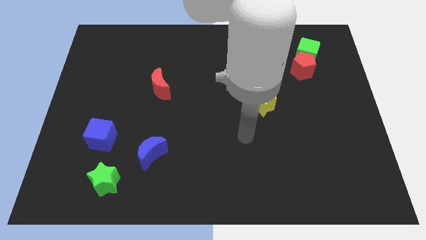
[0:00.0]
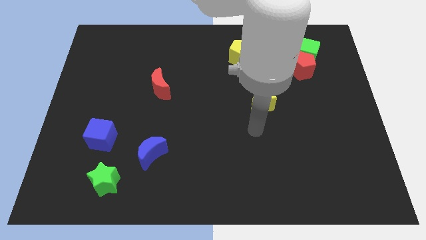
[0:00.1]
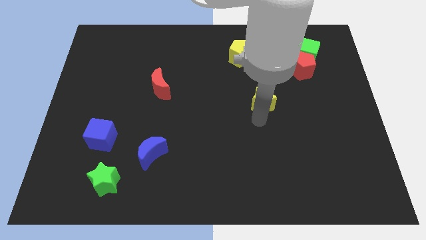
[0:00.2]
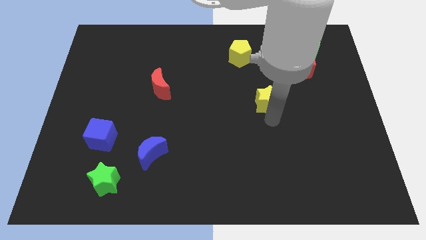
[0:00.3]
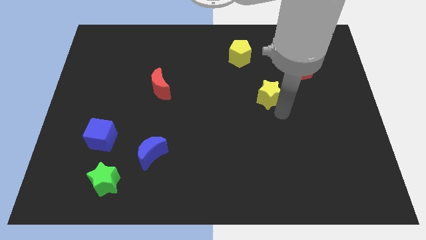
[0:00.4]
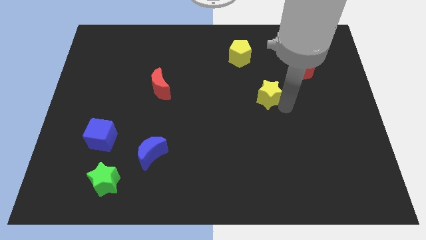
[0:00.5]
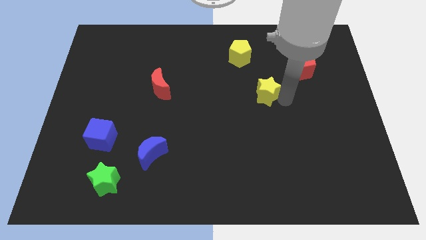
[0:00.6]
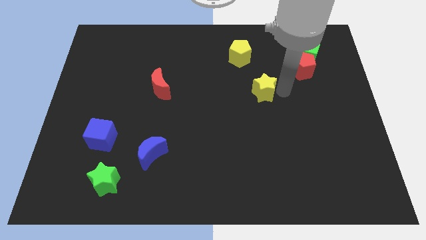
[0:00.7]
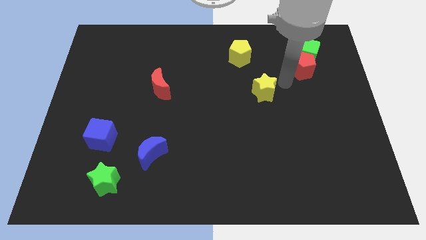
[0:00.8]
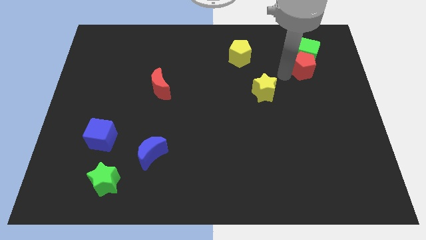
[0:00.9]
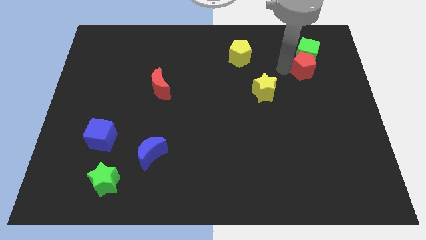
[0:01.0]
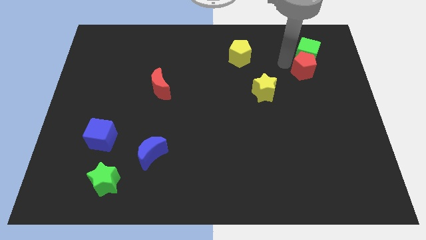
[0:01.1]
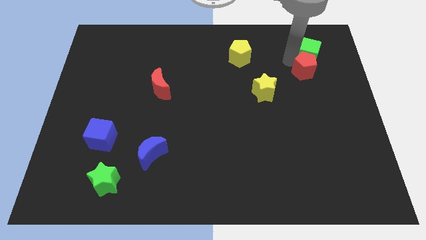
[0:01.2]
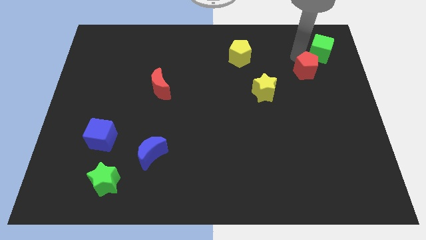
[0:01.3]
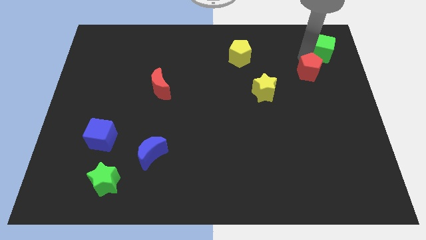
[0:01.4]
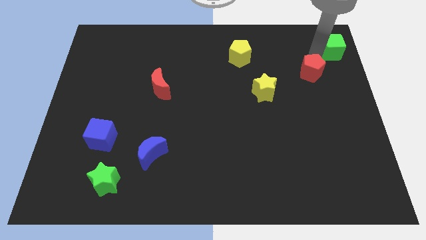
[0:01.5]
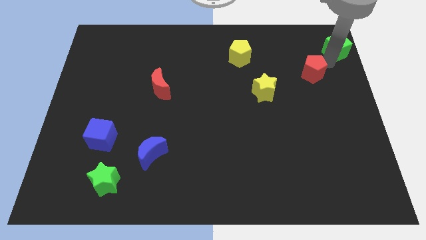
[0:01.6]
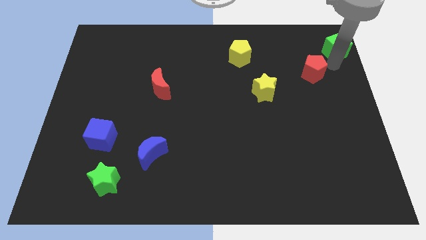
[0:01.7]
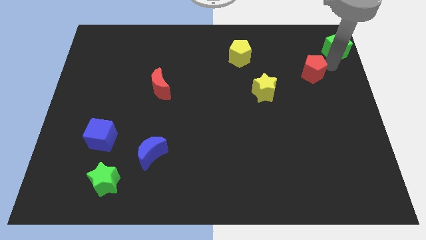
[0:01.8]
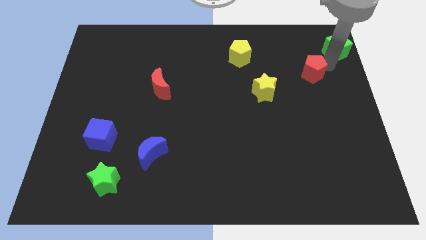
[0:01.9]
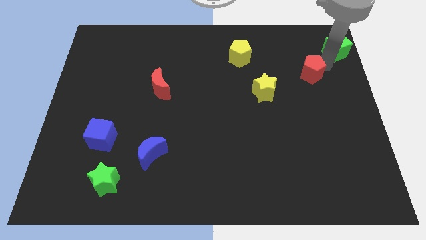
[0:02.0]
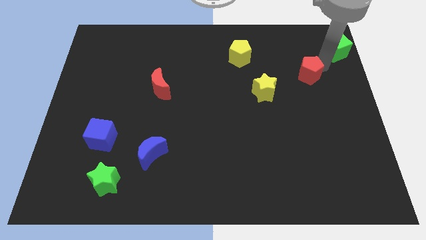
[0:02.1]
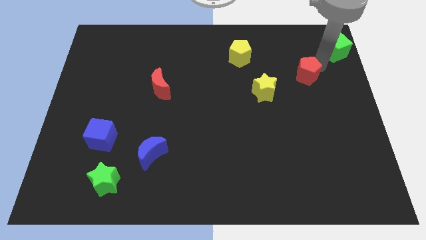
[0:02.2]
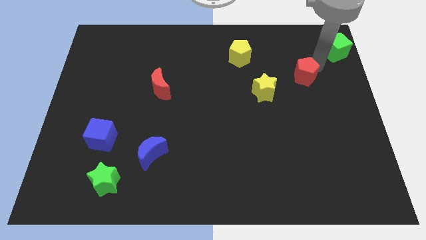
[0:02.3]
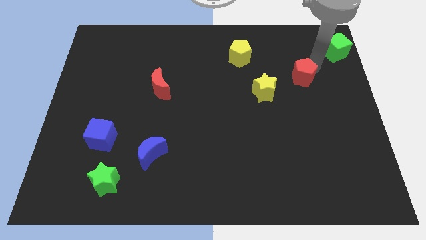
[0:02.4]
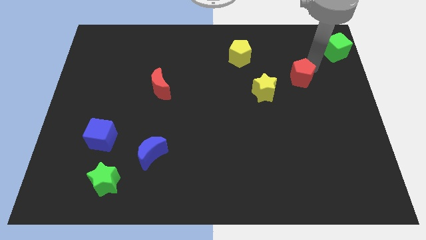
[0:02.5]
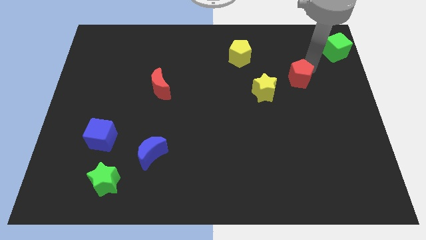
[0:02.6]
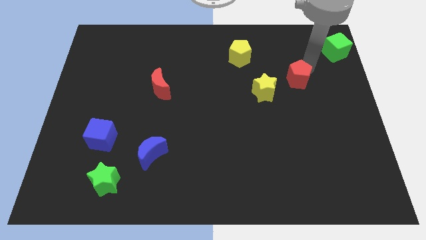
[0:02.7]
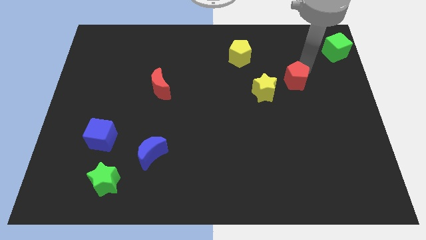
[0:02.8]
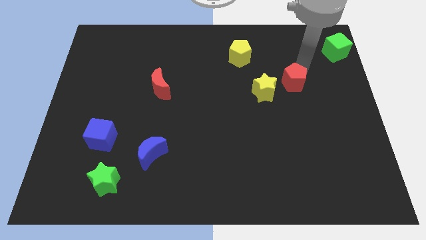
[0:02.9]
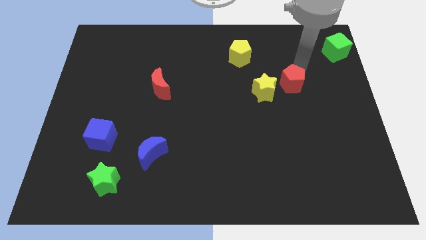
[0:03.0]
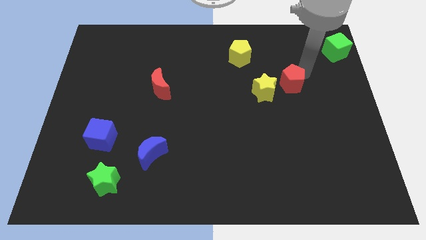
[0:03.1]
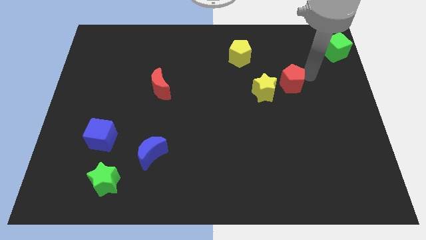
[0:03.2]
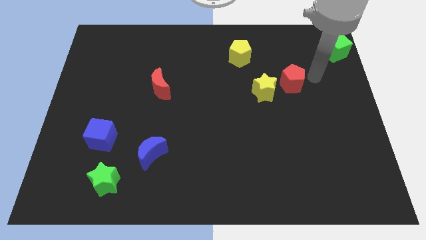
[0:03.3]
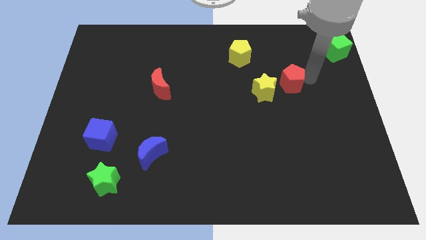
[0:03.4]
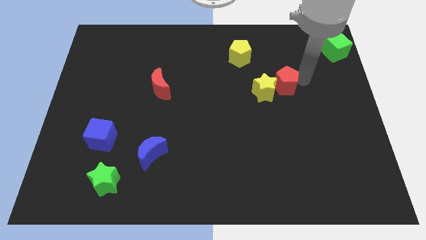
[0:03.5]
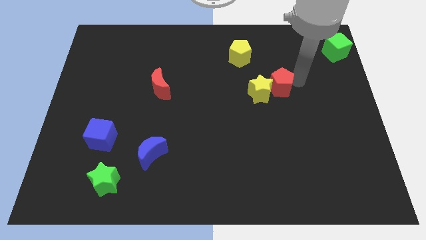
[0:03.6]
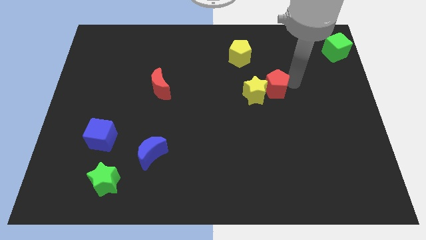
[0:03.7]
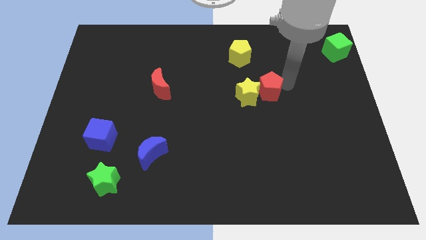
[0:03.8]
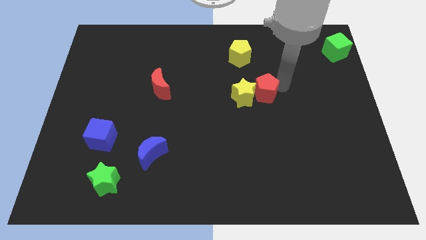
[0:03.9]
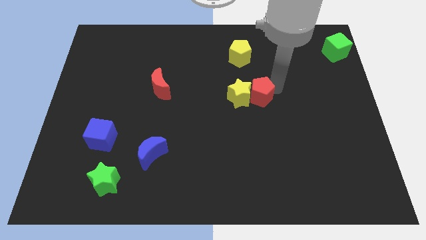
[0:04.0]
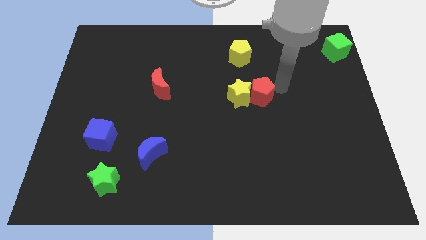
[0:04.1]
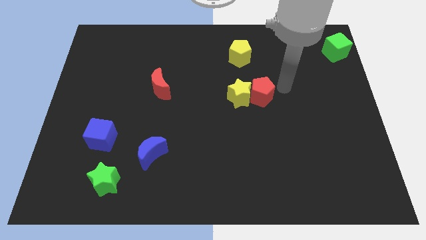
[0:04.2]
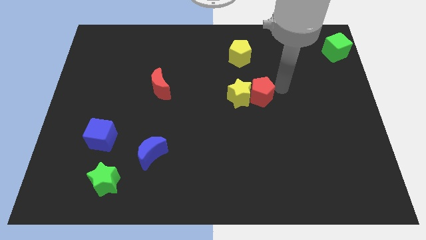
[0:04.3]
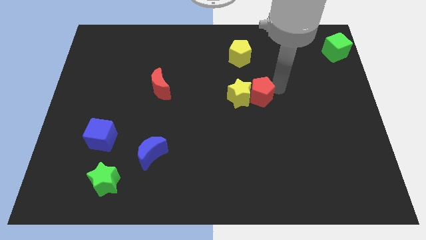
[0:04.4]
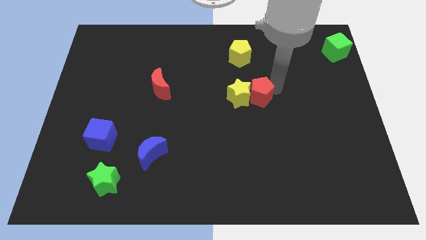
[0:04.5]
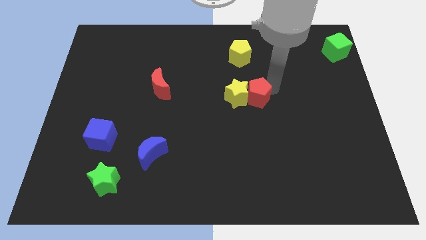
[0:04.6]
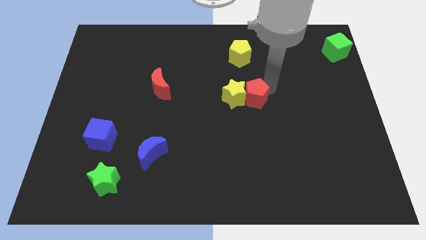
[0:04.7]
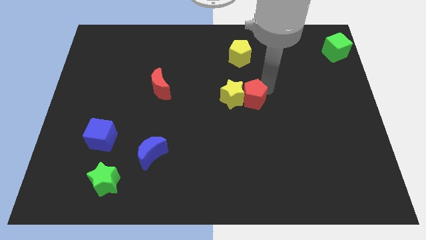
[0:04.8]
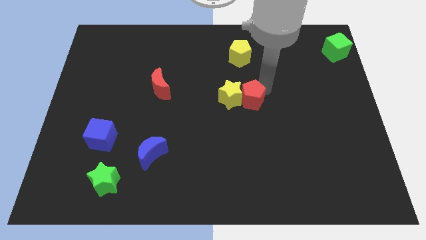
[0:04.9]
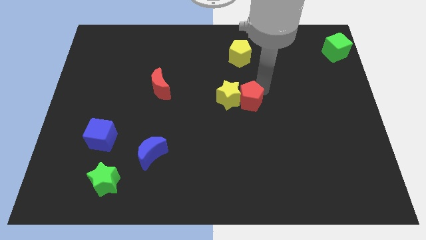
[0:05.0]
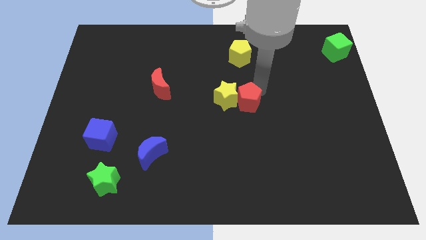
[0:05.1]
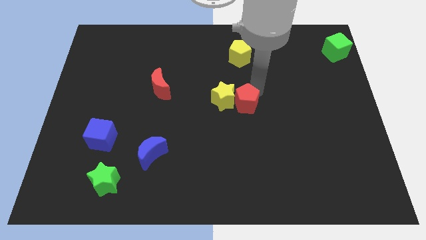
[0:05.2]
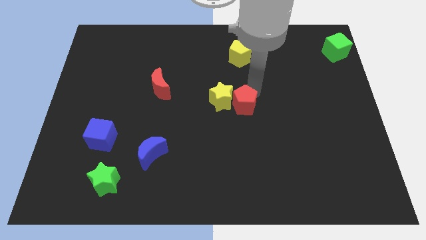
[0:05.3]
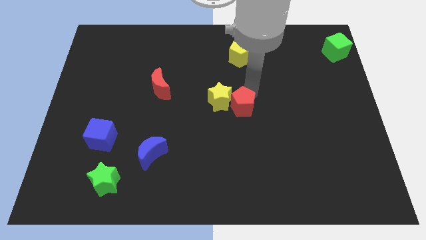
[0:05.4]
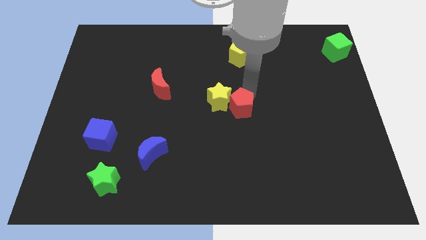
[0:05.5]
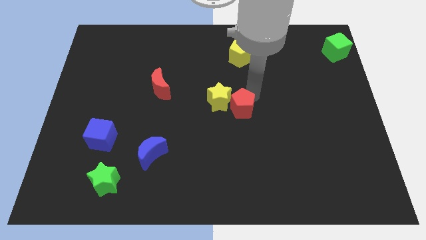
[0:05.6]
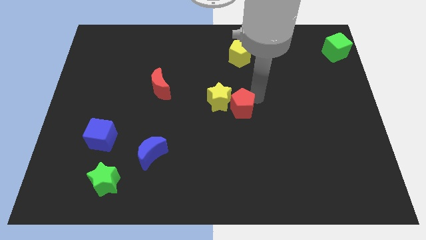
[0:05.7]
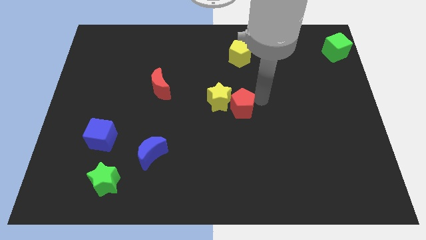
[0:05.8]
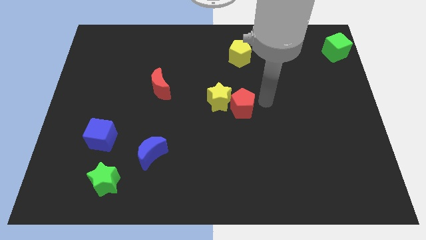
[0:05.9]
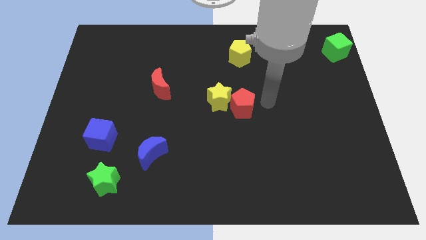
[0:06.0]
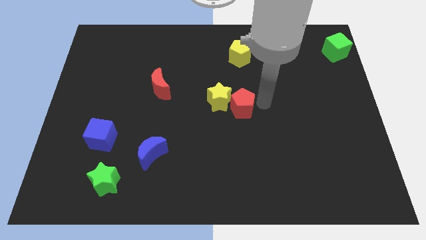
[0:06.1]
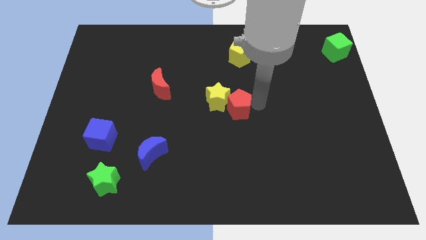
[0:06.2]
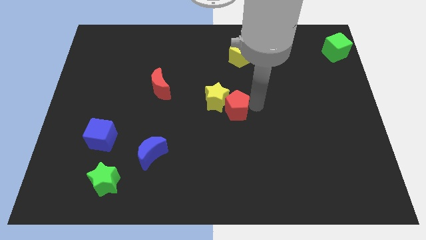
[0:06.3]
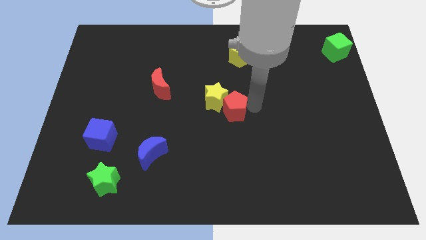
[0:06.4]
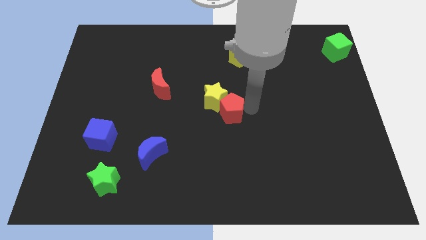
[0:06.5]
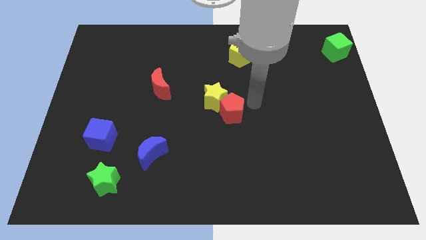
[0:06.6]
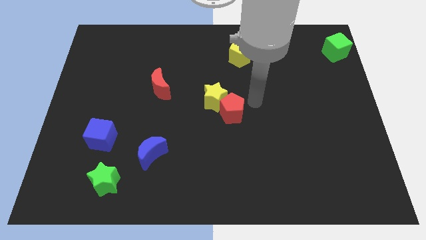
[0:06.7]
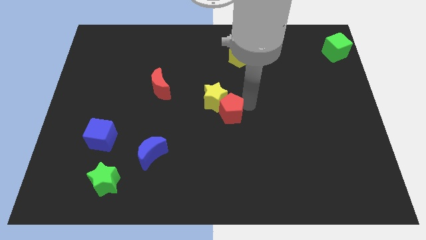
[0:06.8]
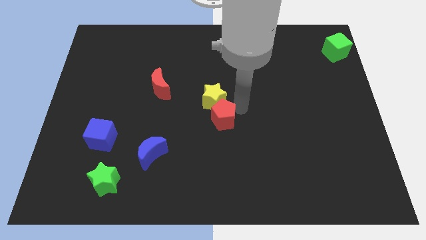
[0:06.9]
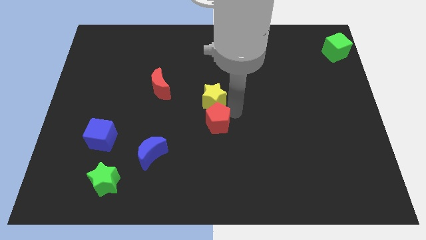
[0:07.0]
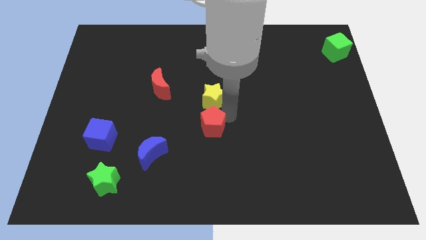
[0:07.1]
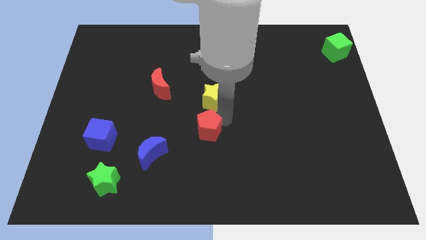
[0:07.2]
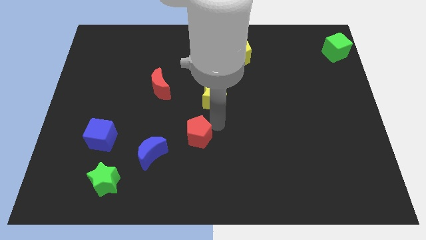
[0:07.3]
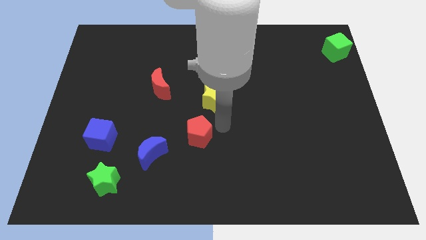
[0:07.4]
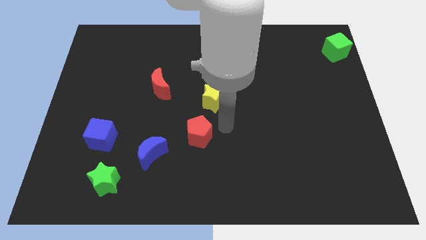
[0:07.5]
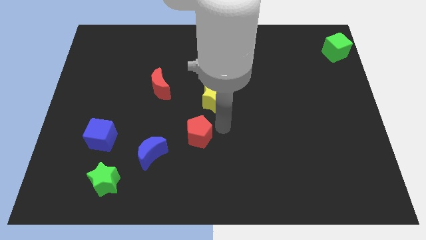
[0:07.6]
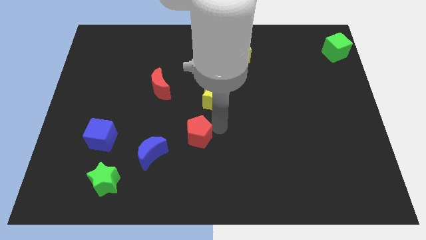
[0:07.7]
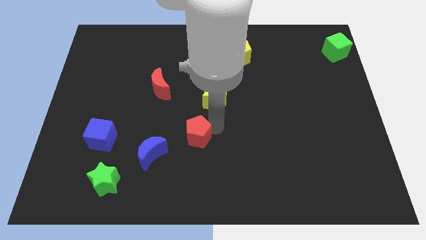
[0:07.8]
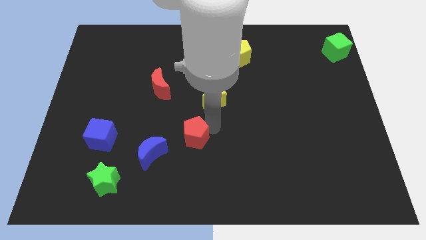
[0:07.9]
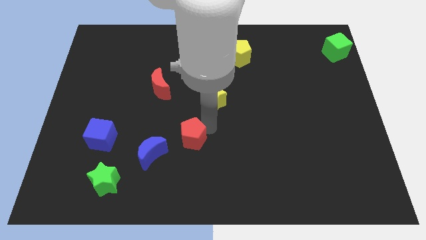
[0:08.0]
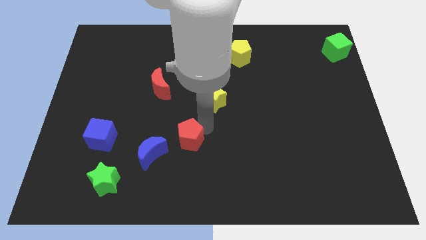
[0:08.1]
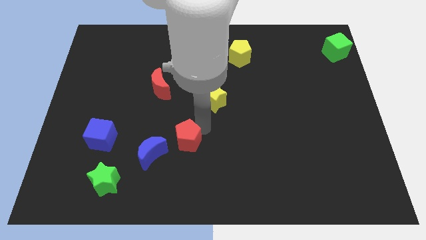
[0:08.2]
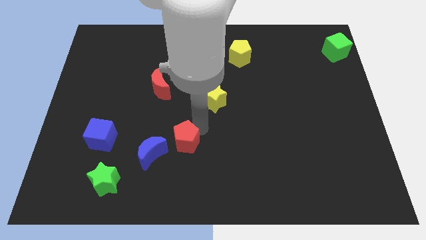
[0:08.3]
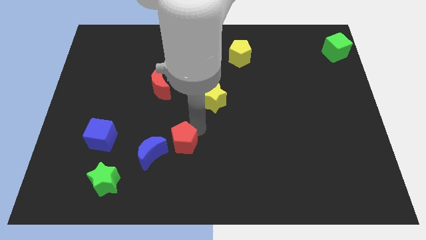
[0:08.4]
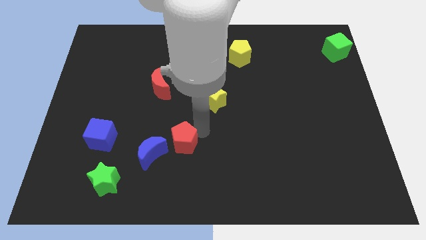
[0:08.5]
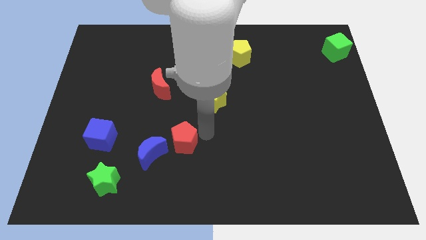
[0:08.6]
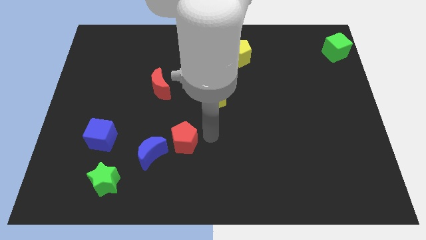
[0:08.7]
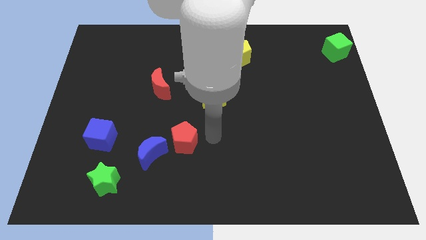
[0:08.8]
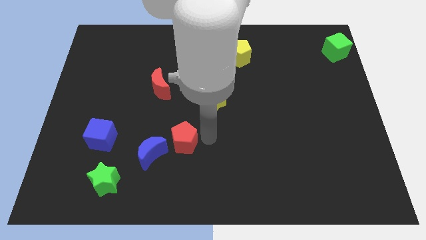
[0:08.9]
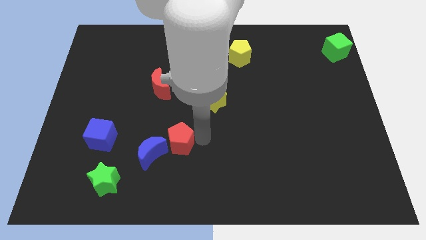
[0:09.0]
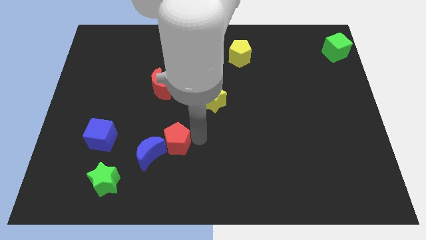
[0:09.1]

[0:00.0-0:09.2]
push the red pentagon next to the blue moon
